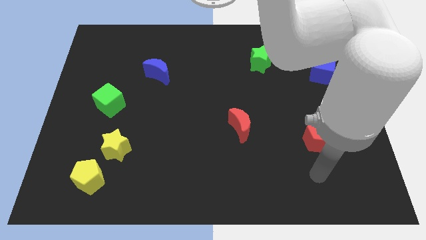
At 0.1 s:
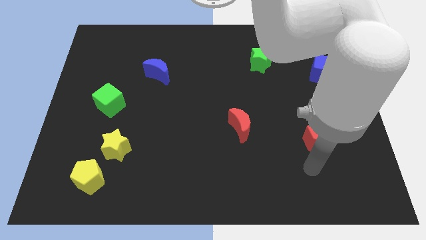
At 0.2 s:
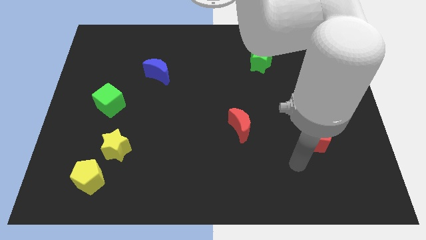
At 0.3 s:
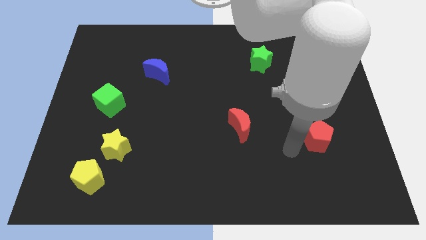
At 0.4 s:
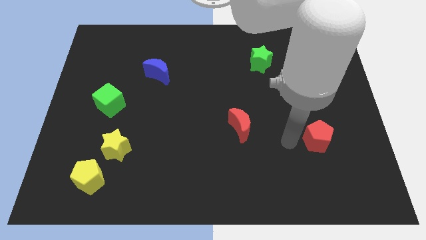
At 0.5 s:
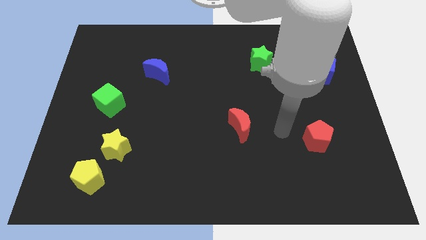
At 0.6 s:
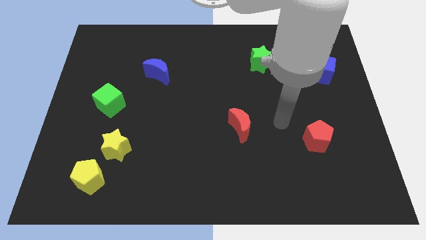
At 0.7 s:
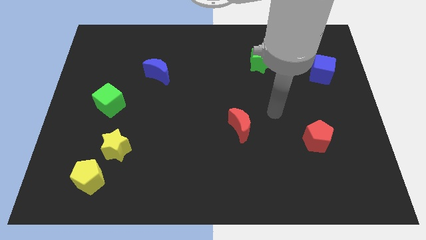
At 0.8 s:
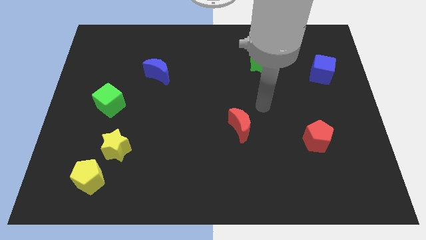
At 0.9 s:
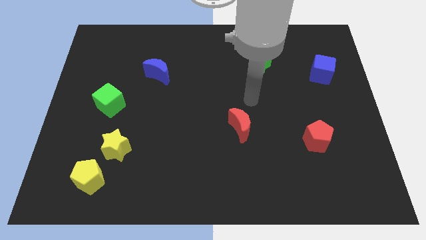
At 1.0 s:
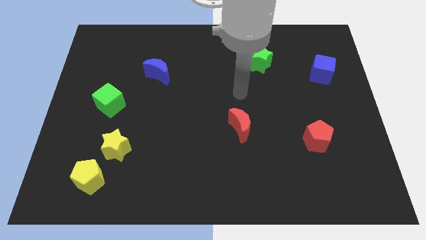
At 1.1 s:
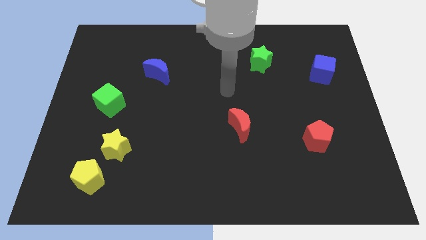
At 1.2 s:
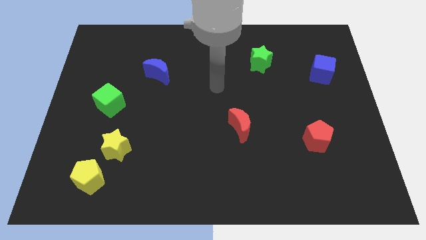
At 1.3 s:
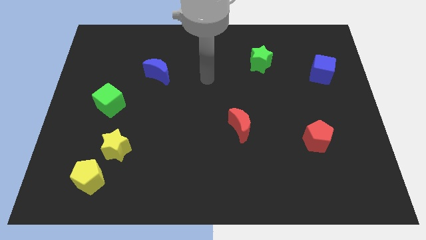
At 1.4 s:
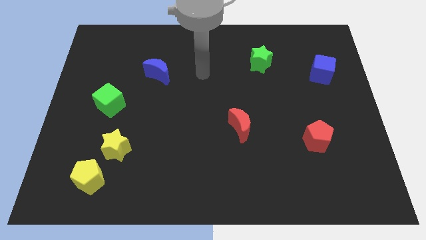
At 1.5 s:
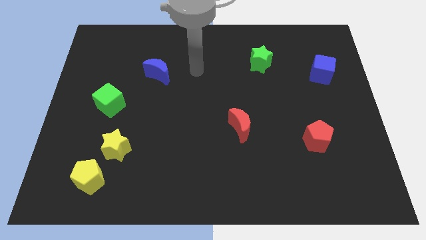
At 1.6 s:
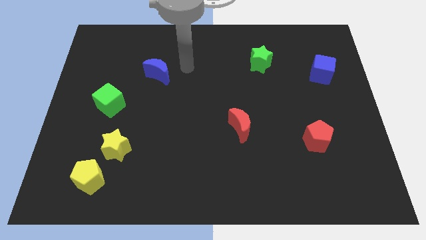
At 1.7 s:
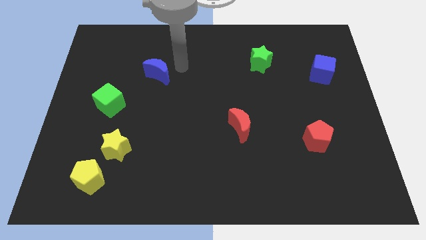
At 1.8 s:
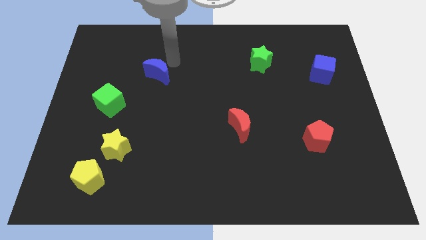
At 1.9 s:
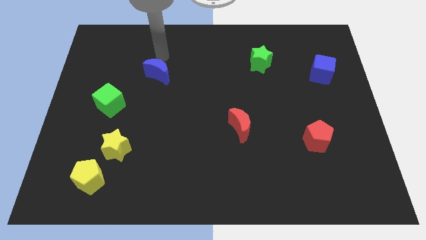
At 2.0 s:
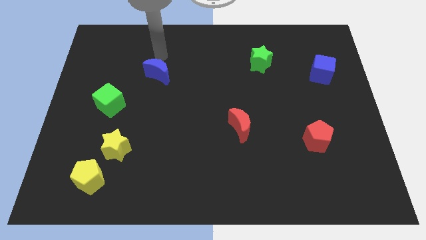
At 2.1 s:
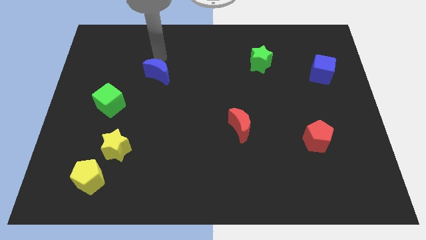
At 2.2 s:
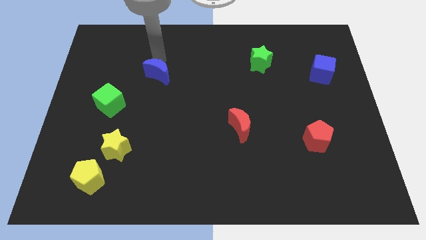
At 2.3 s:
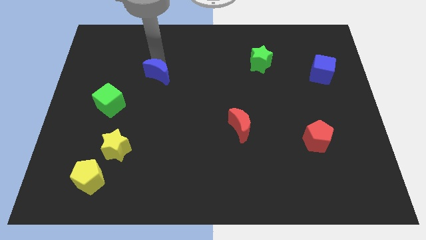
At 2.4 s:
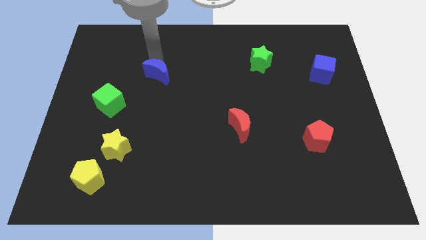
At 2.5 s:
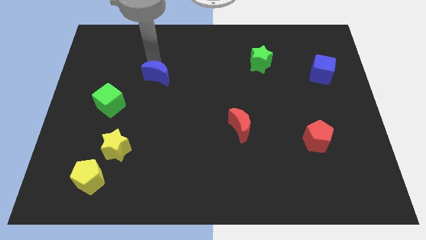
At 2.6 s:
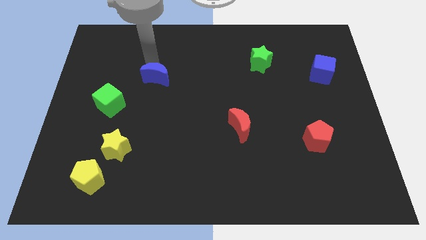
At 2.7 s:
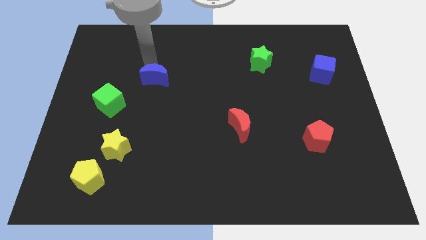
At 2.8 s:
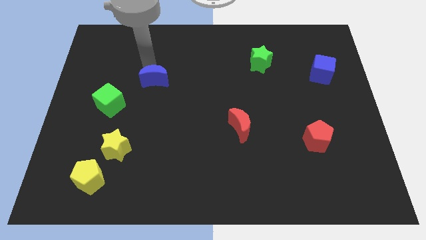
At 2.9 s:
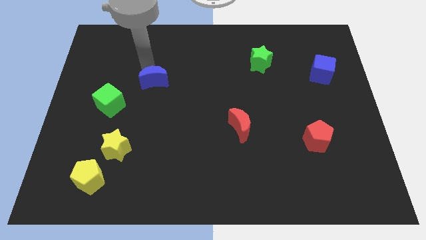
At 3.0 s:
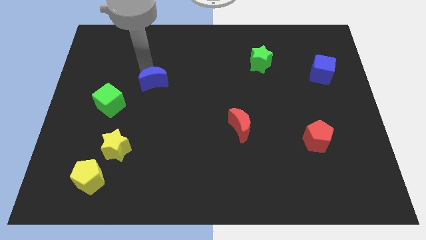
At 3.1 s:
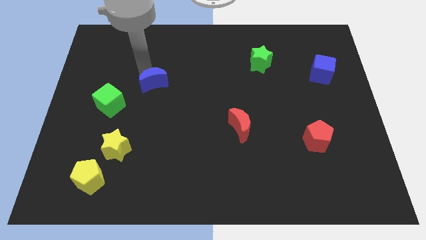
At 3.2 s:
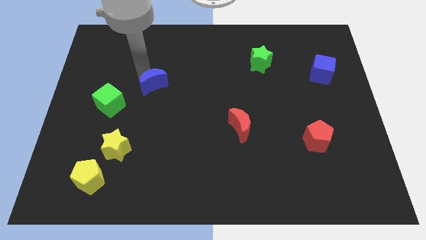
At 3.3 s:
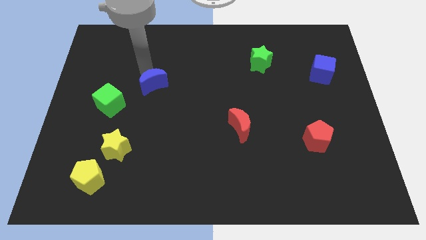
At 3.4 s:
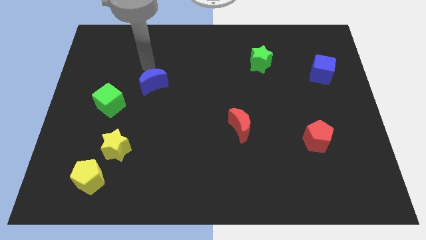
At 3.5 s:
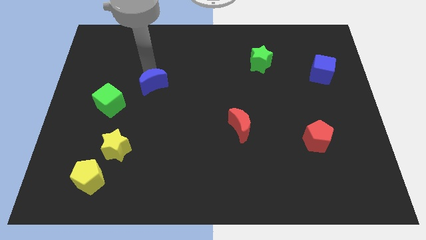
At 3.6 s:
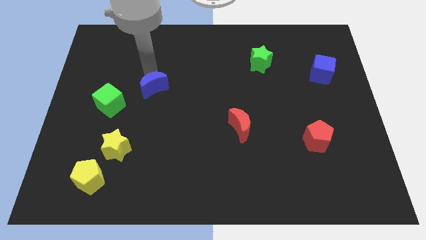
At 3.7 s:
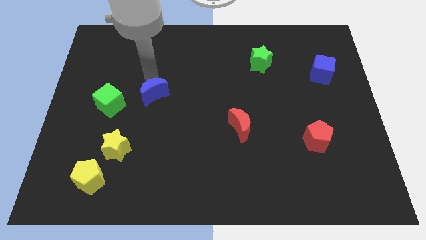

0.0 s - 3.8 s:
move the blue moon down a bit

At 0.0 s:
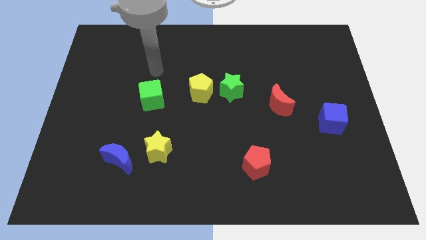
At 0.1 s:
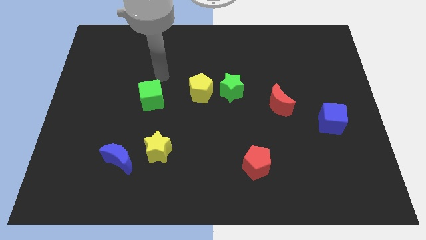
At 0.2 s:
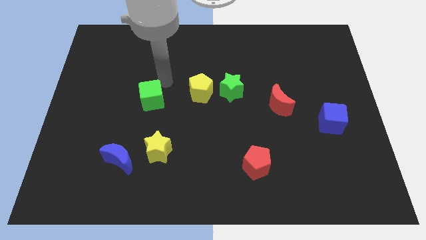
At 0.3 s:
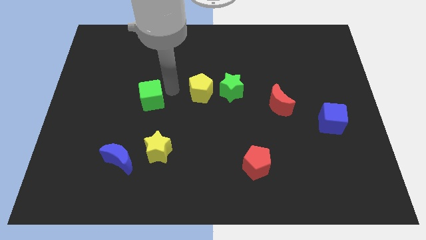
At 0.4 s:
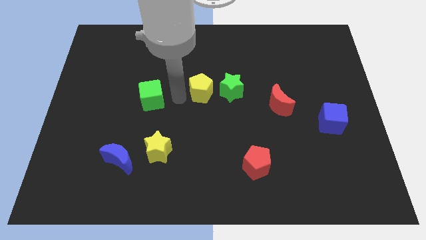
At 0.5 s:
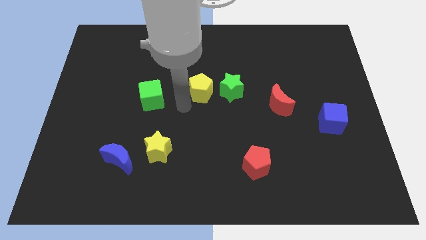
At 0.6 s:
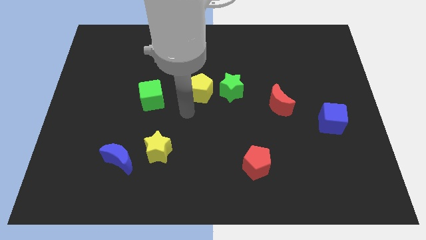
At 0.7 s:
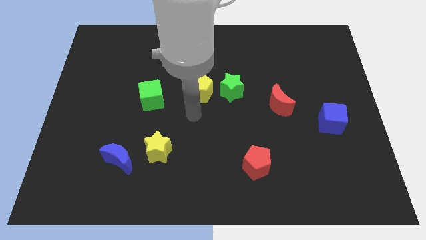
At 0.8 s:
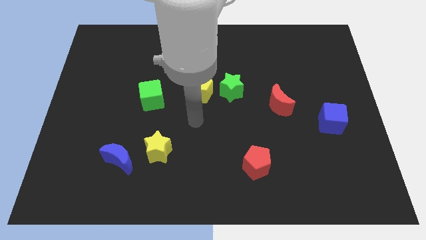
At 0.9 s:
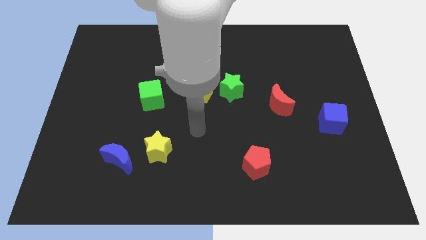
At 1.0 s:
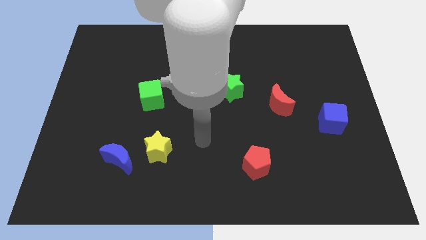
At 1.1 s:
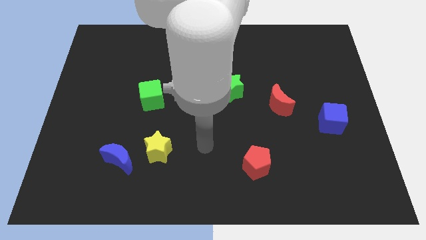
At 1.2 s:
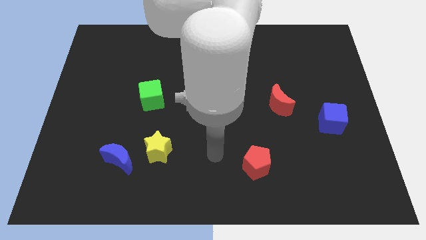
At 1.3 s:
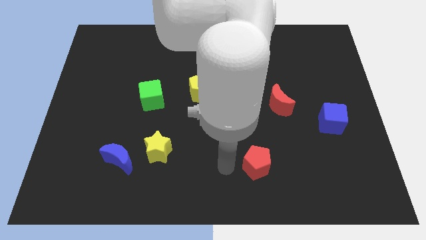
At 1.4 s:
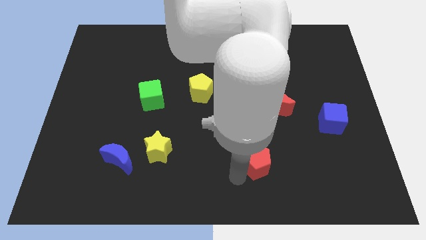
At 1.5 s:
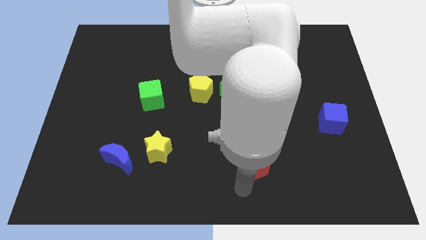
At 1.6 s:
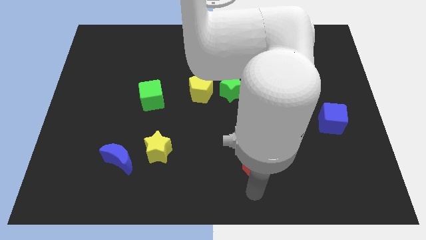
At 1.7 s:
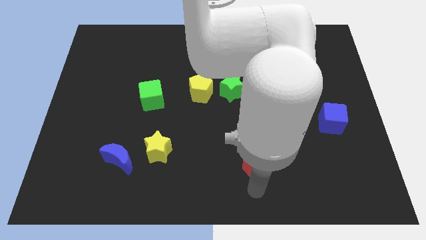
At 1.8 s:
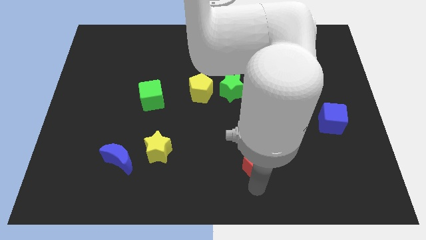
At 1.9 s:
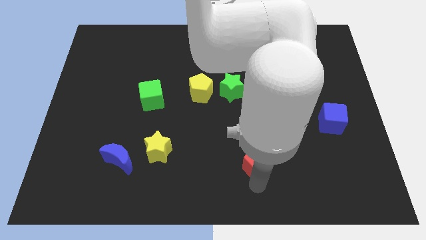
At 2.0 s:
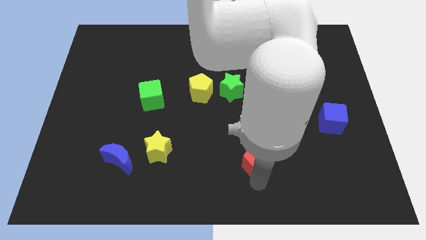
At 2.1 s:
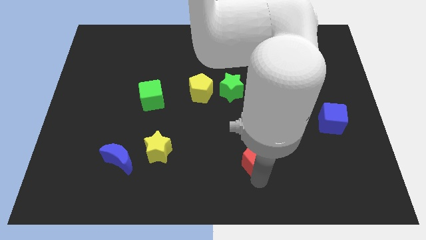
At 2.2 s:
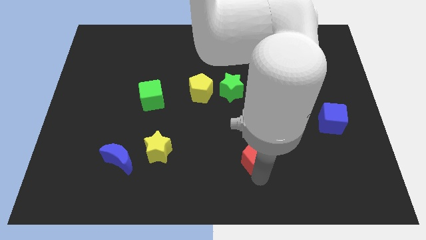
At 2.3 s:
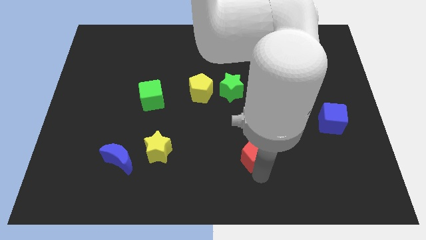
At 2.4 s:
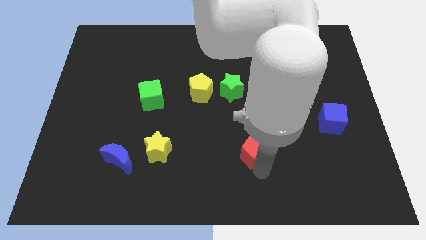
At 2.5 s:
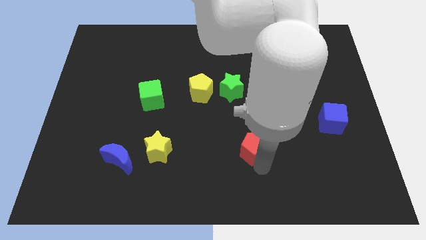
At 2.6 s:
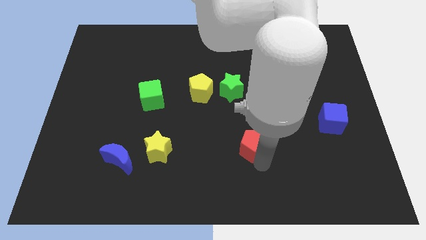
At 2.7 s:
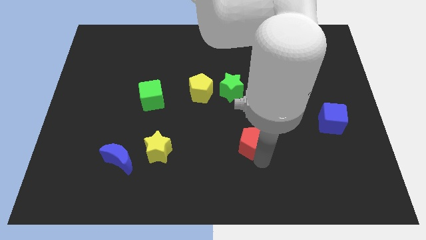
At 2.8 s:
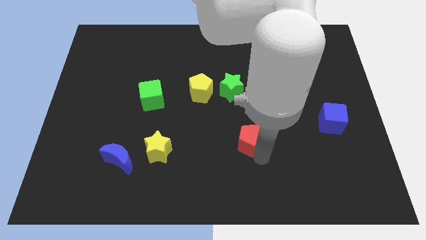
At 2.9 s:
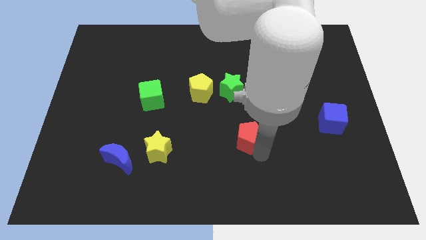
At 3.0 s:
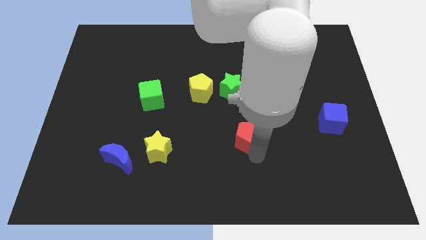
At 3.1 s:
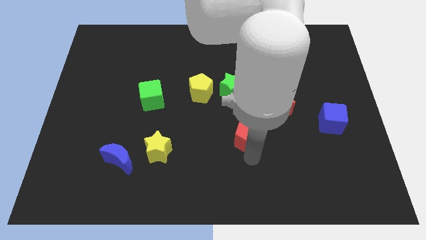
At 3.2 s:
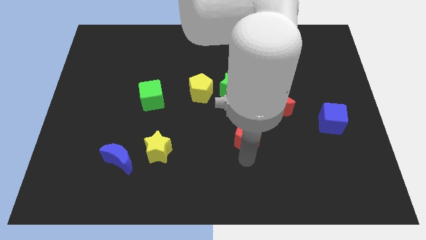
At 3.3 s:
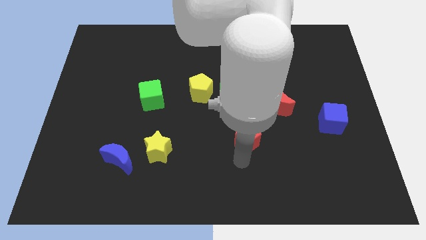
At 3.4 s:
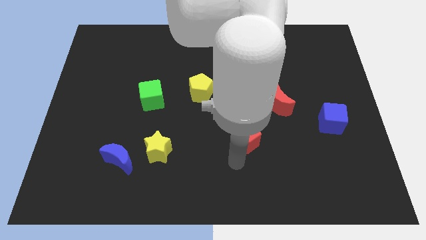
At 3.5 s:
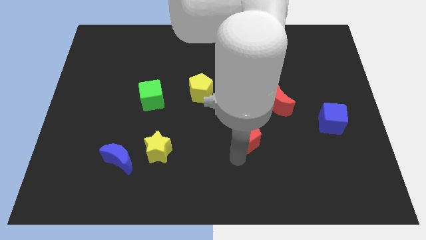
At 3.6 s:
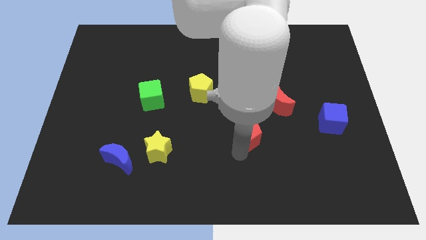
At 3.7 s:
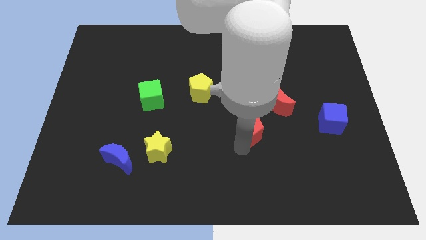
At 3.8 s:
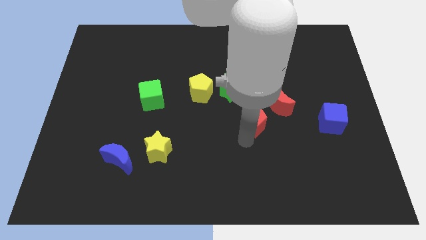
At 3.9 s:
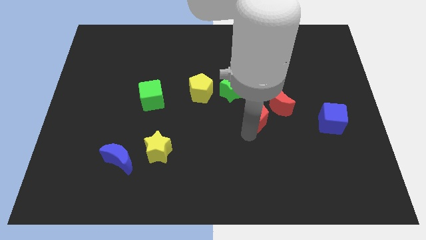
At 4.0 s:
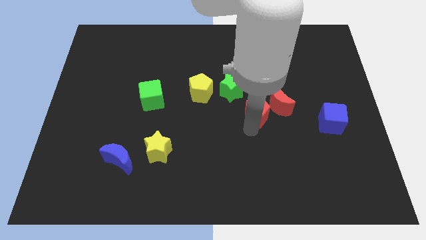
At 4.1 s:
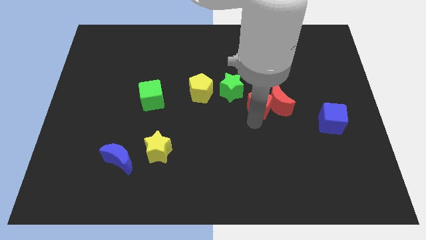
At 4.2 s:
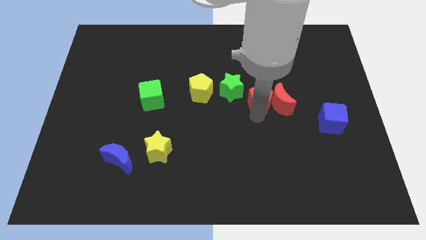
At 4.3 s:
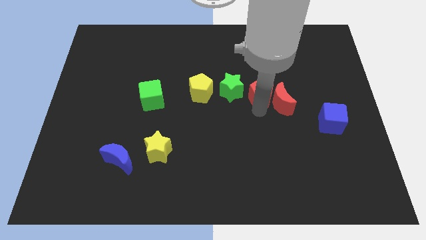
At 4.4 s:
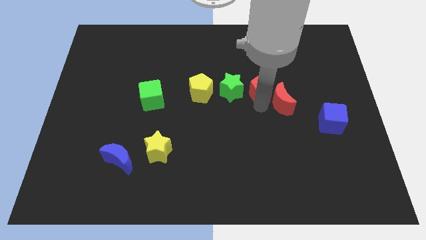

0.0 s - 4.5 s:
move the red pentagon up
